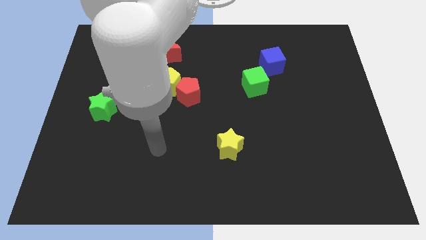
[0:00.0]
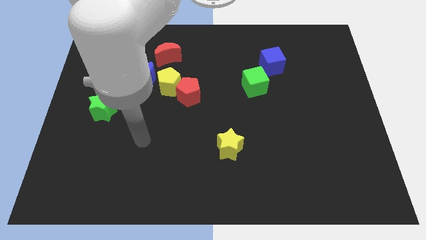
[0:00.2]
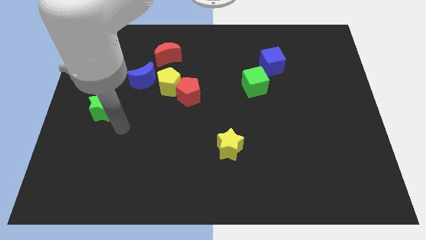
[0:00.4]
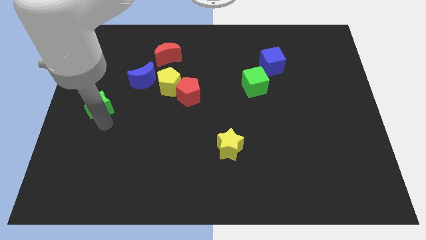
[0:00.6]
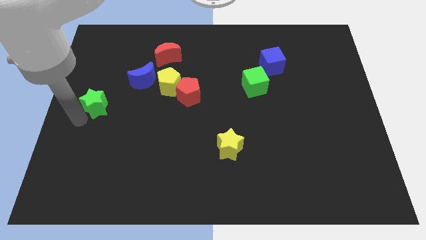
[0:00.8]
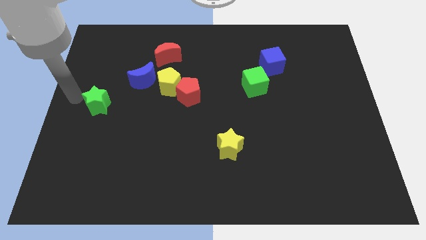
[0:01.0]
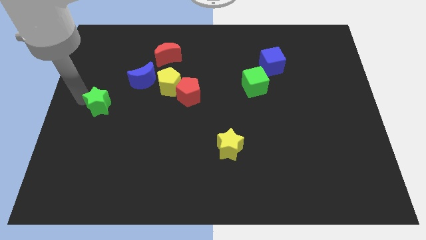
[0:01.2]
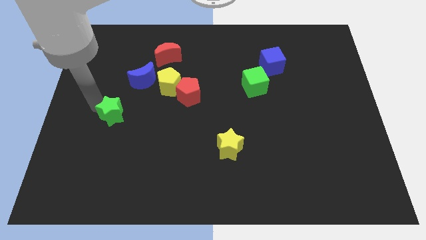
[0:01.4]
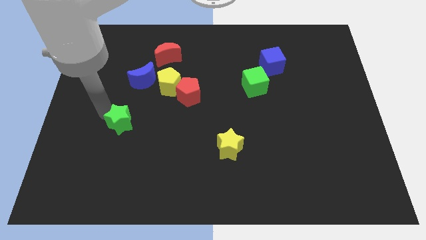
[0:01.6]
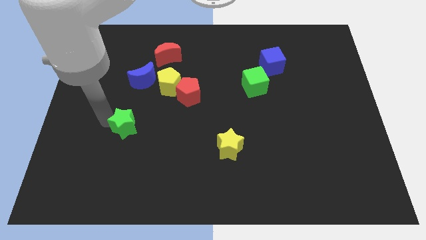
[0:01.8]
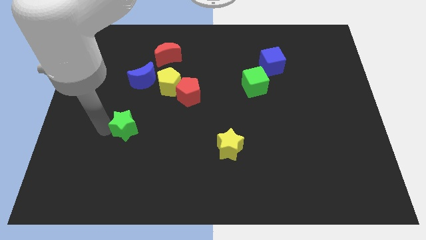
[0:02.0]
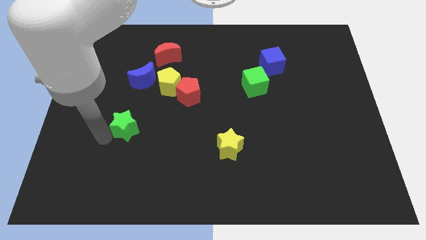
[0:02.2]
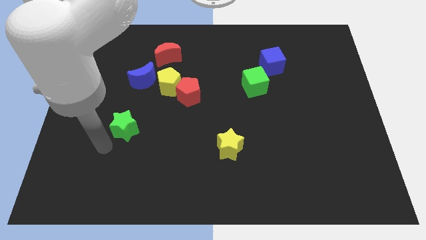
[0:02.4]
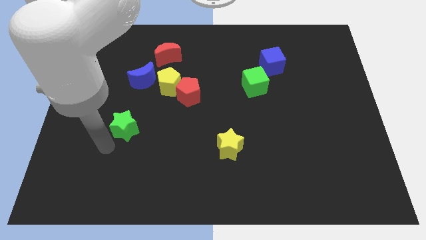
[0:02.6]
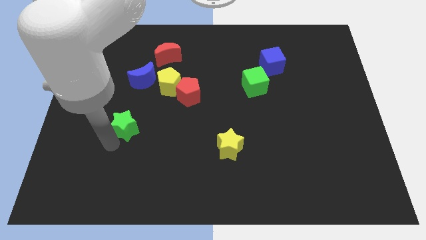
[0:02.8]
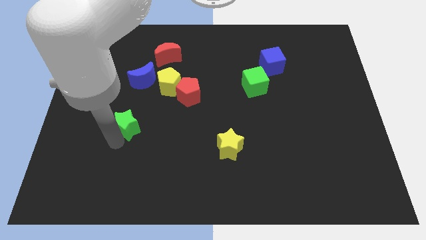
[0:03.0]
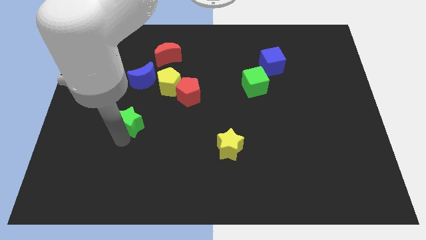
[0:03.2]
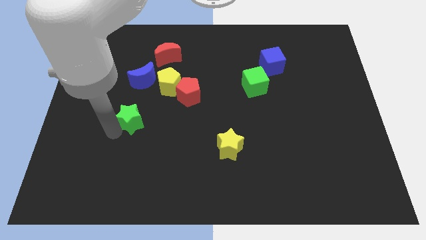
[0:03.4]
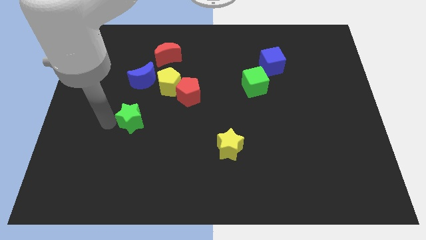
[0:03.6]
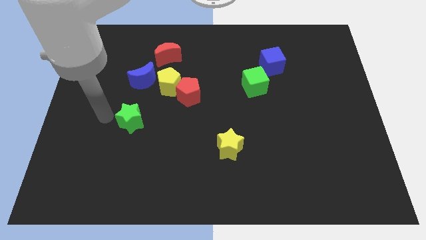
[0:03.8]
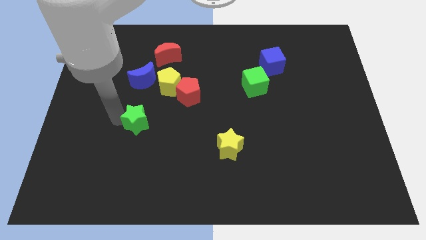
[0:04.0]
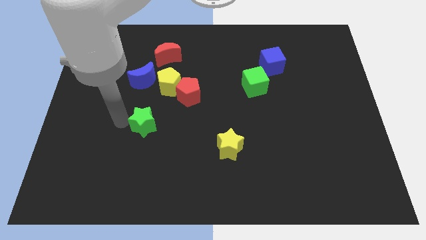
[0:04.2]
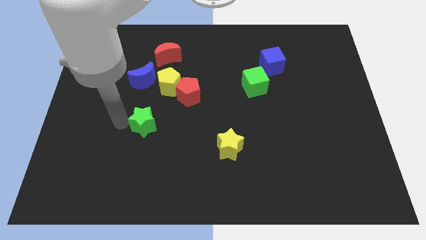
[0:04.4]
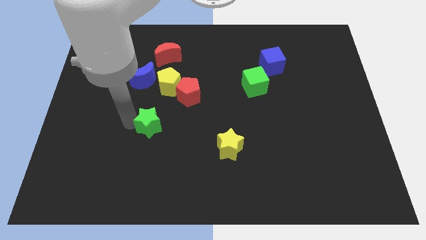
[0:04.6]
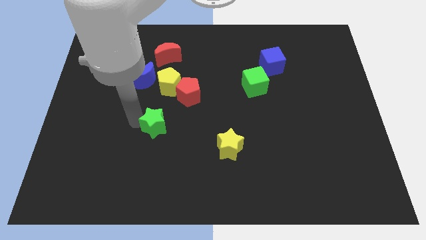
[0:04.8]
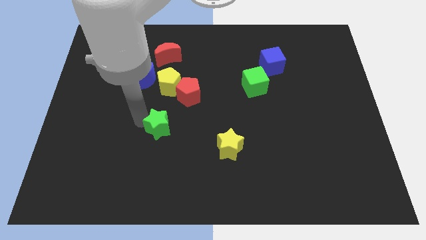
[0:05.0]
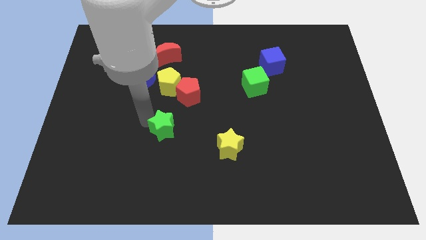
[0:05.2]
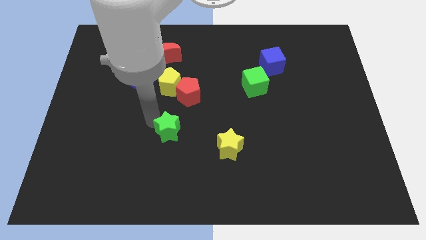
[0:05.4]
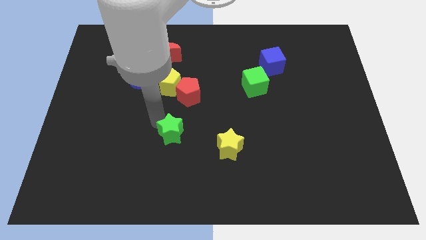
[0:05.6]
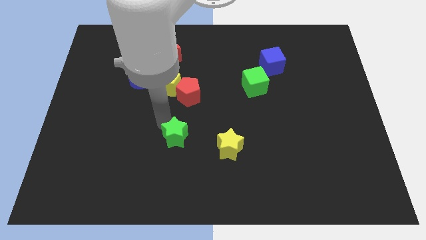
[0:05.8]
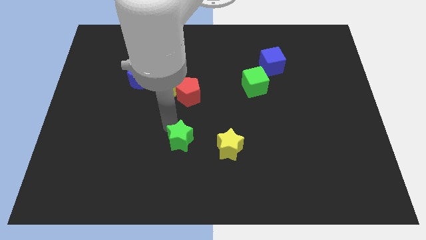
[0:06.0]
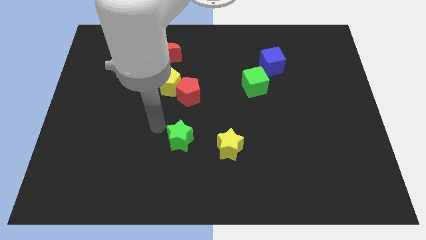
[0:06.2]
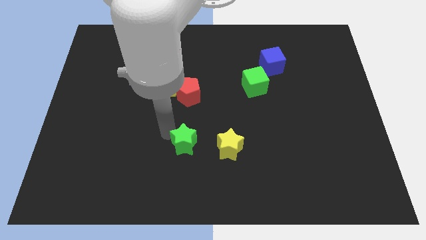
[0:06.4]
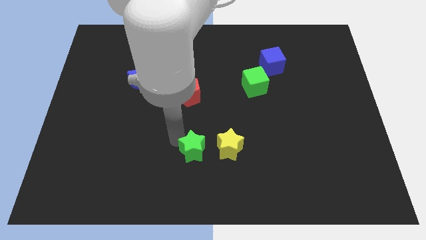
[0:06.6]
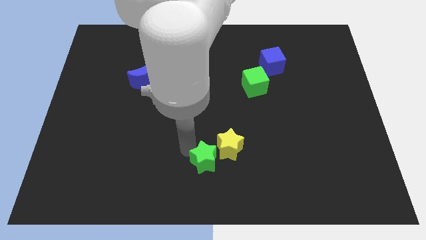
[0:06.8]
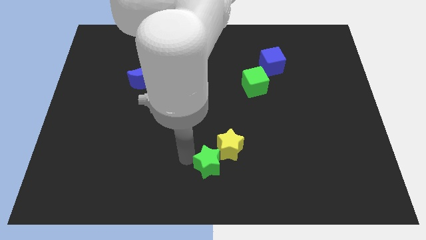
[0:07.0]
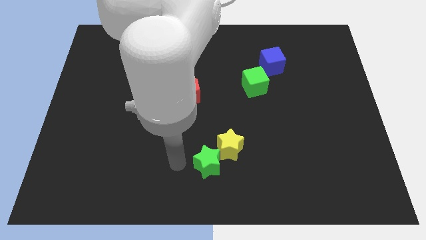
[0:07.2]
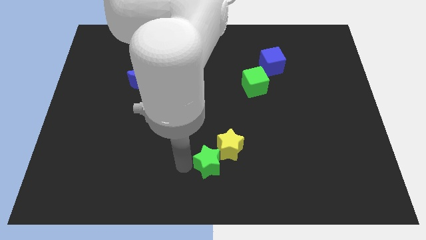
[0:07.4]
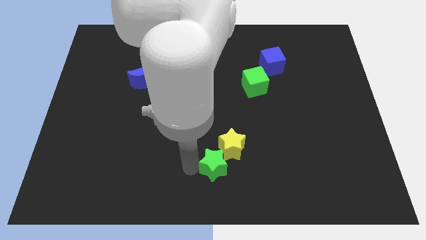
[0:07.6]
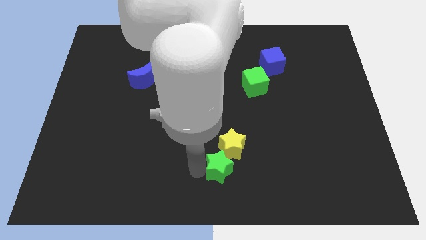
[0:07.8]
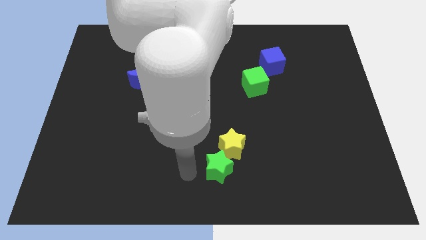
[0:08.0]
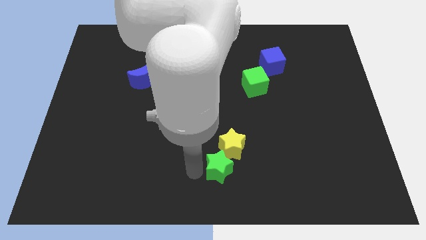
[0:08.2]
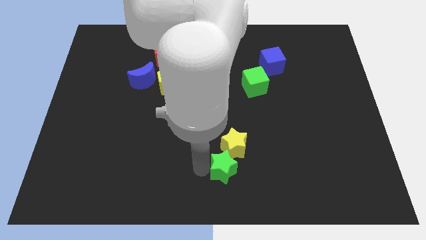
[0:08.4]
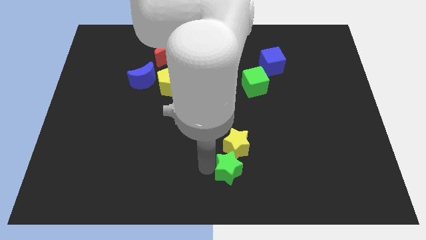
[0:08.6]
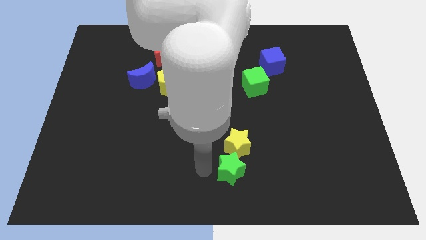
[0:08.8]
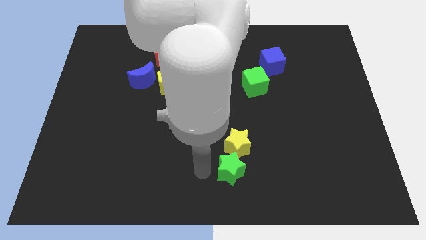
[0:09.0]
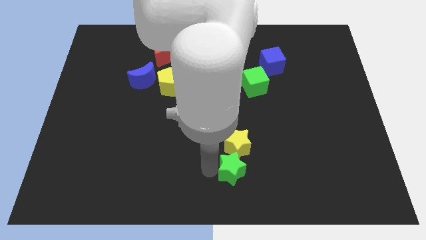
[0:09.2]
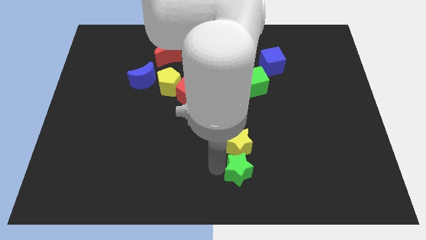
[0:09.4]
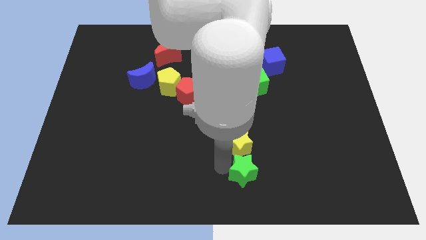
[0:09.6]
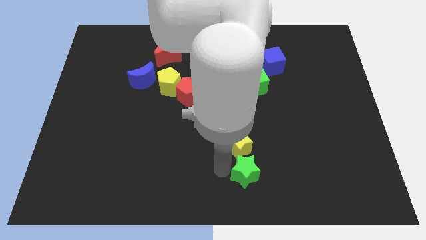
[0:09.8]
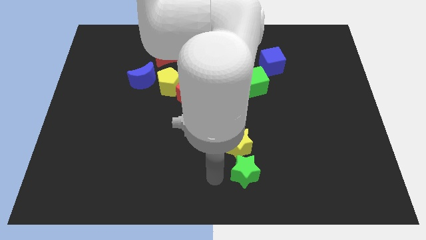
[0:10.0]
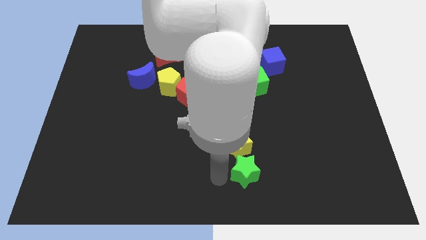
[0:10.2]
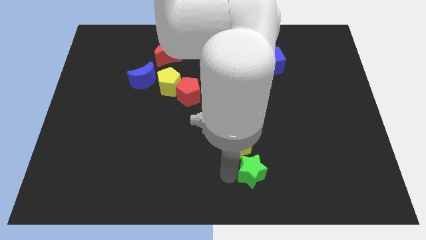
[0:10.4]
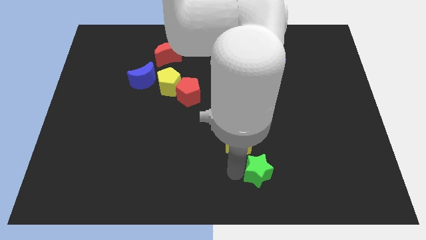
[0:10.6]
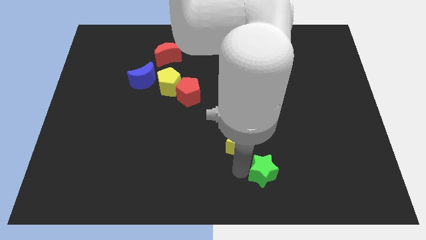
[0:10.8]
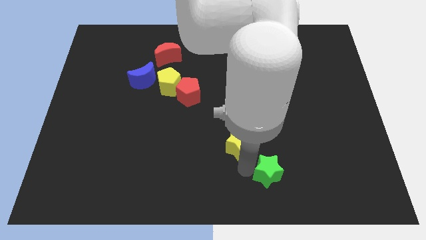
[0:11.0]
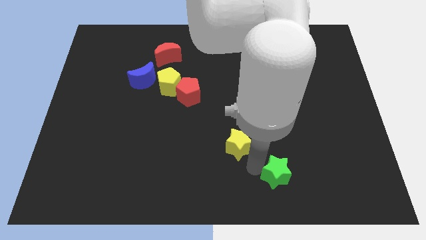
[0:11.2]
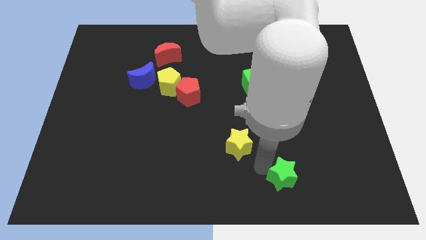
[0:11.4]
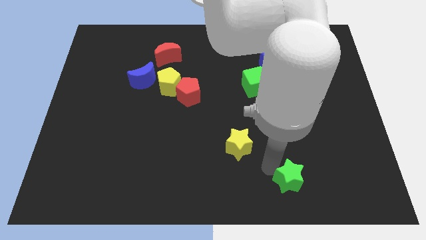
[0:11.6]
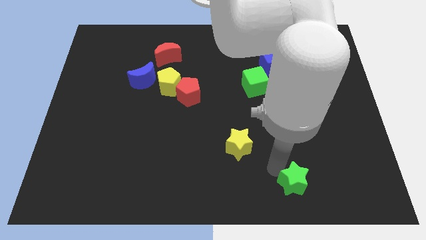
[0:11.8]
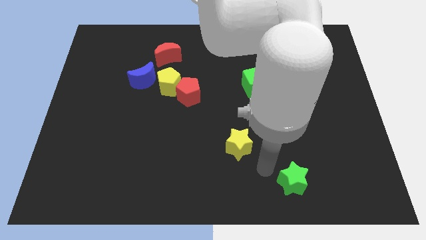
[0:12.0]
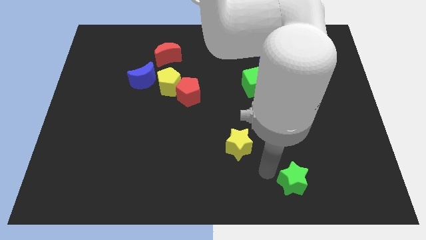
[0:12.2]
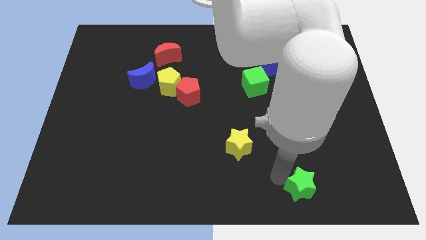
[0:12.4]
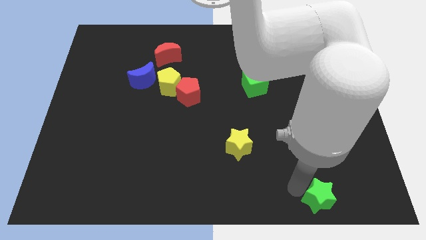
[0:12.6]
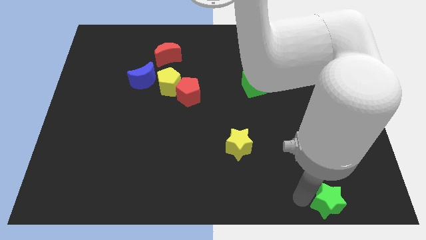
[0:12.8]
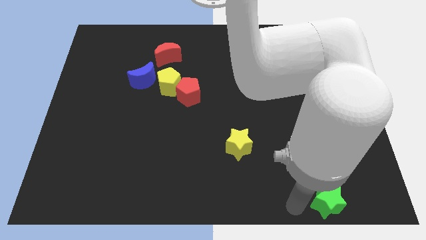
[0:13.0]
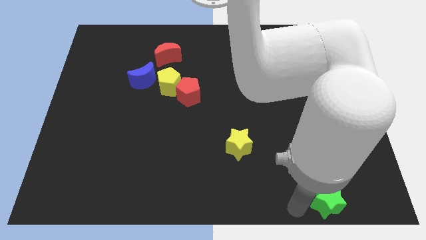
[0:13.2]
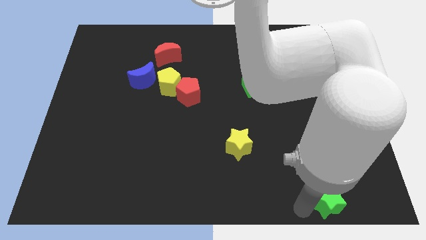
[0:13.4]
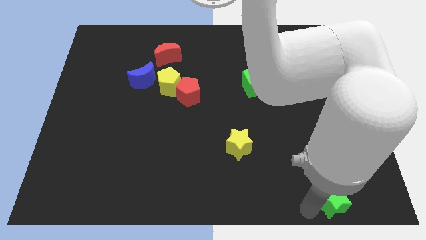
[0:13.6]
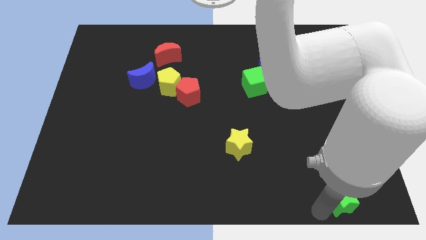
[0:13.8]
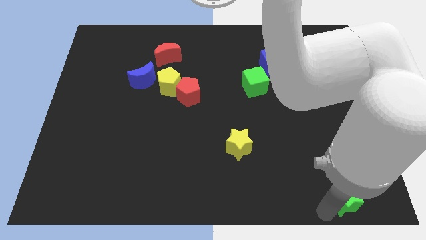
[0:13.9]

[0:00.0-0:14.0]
put the green star to the bottom right of the board
